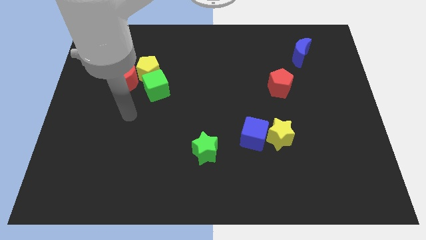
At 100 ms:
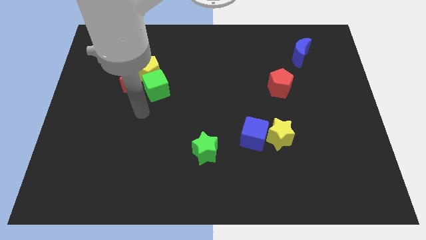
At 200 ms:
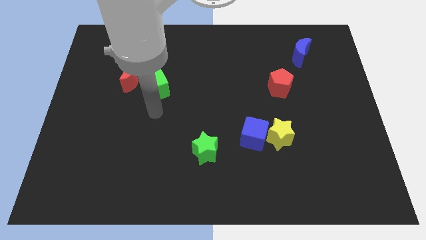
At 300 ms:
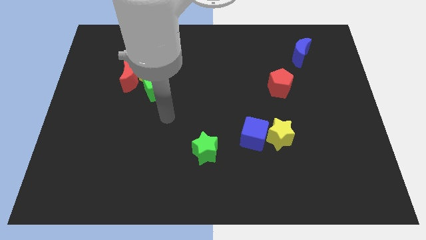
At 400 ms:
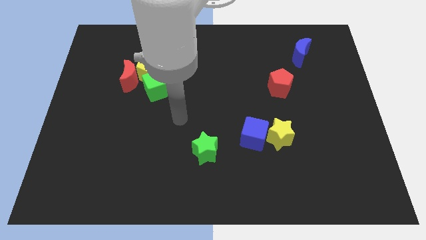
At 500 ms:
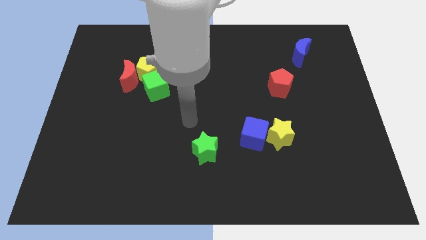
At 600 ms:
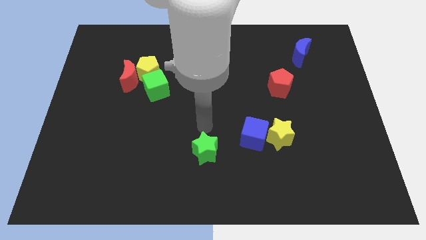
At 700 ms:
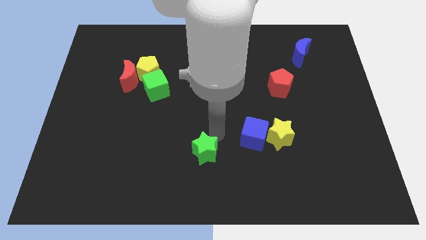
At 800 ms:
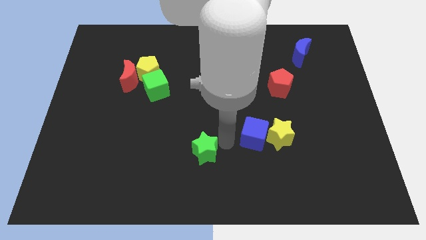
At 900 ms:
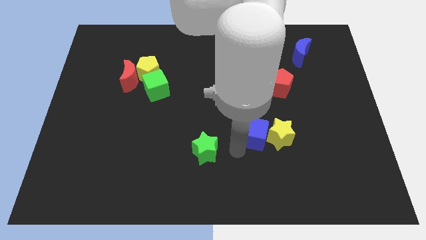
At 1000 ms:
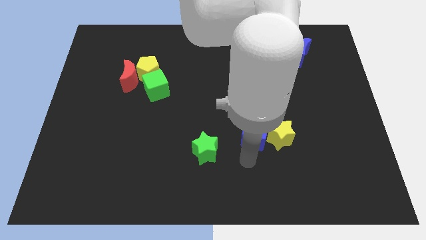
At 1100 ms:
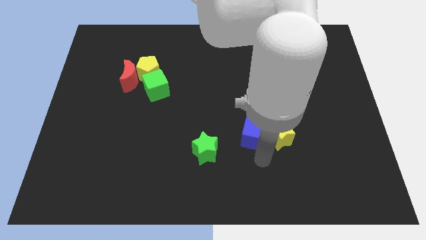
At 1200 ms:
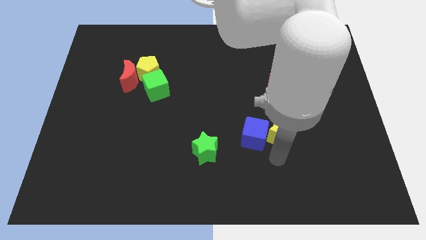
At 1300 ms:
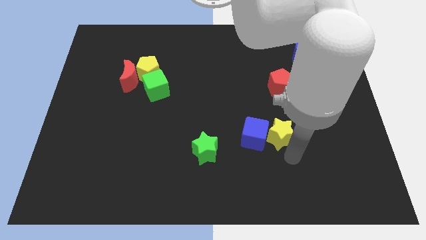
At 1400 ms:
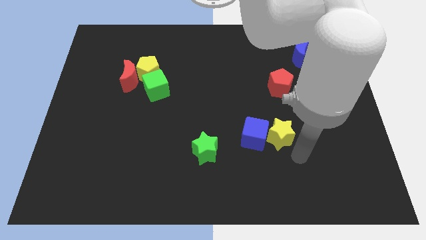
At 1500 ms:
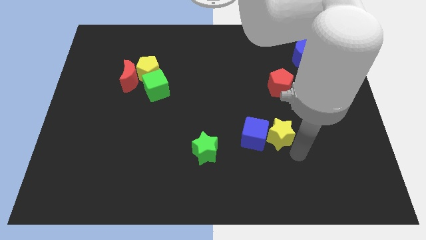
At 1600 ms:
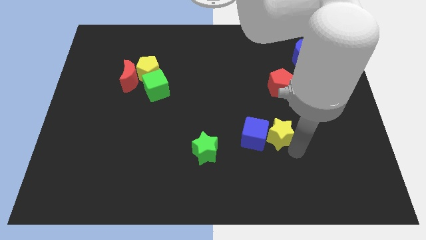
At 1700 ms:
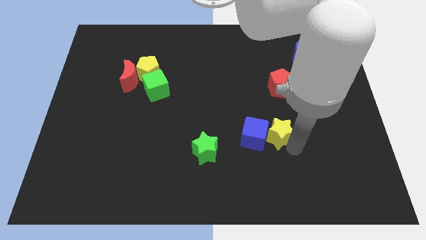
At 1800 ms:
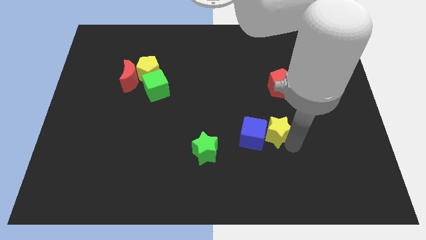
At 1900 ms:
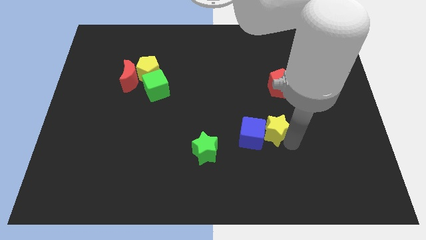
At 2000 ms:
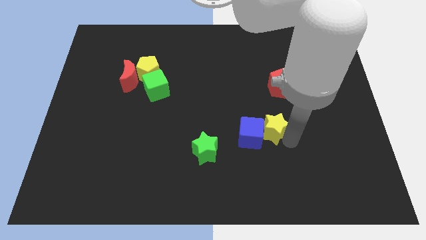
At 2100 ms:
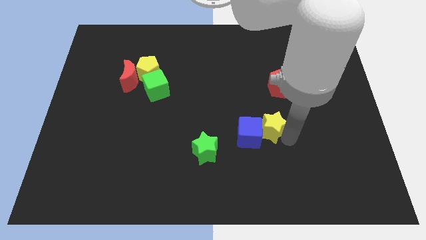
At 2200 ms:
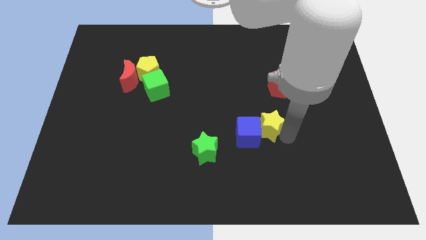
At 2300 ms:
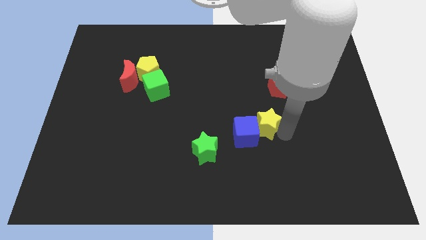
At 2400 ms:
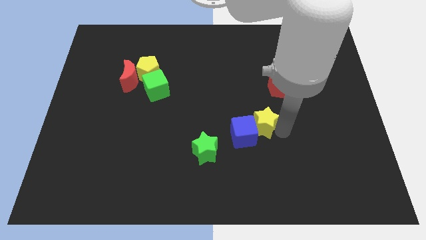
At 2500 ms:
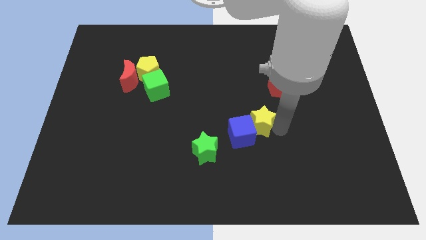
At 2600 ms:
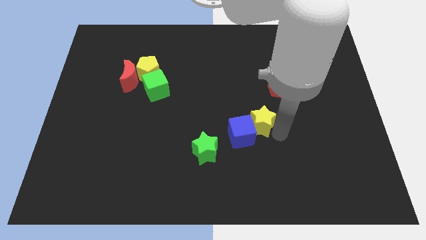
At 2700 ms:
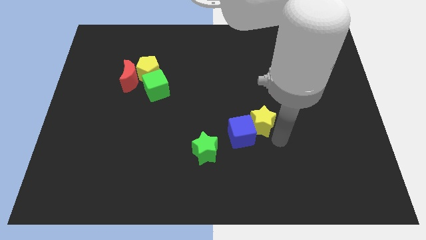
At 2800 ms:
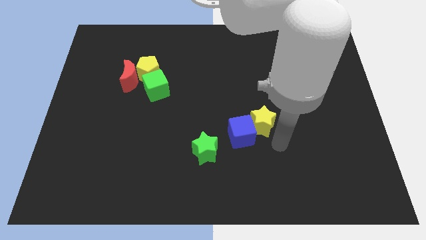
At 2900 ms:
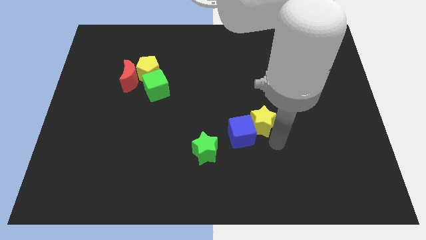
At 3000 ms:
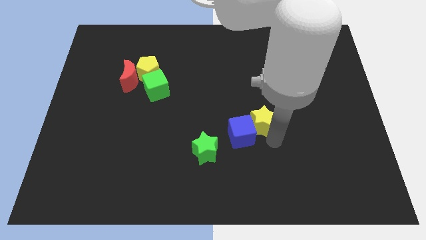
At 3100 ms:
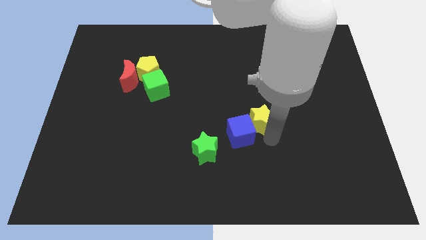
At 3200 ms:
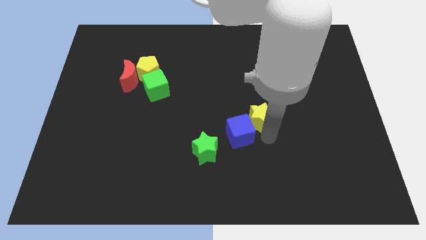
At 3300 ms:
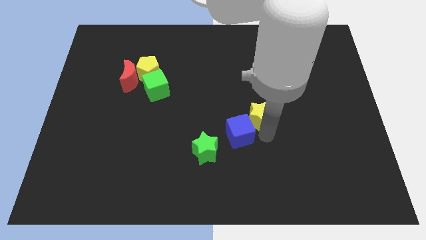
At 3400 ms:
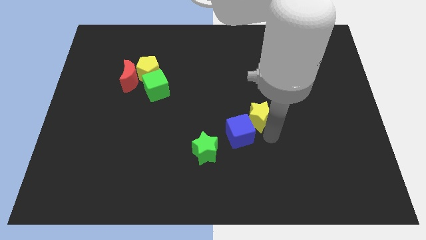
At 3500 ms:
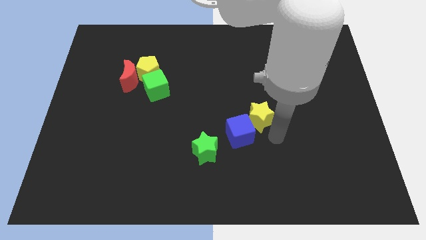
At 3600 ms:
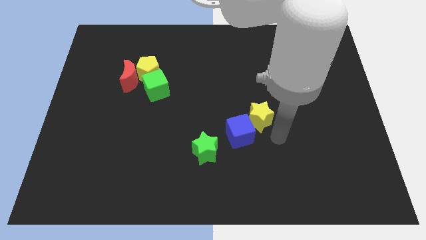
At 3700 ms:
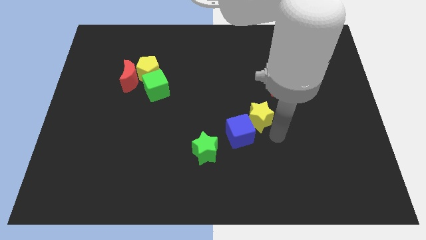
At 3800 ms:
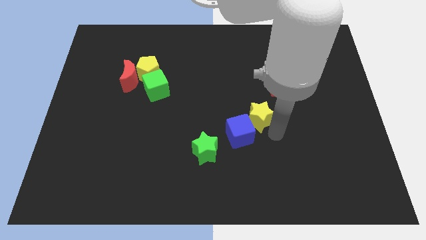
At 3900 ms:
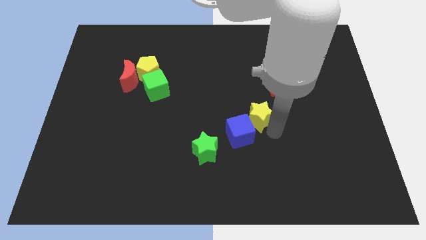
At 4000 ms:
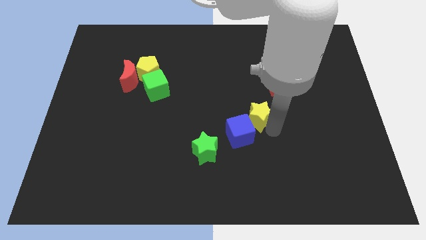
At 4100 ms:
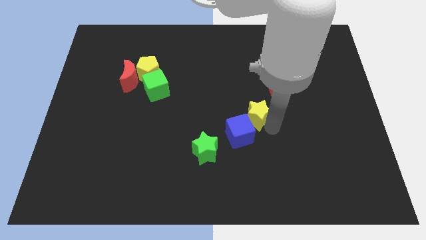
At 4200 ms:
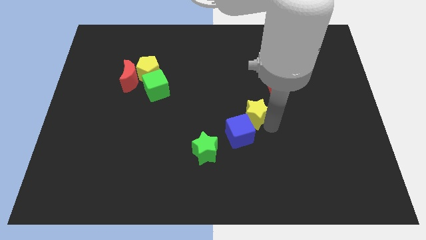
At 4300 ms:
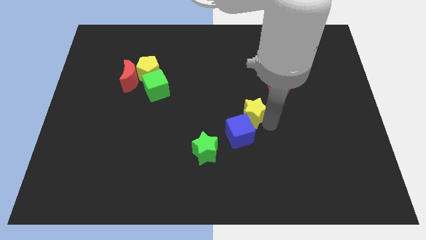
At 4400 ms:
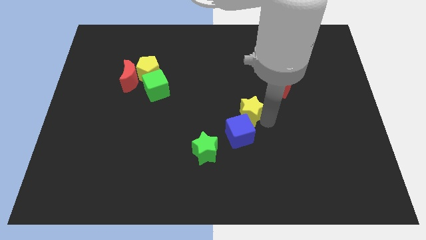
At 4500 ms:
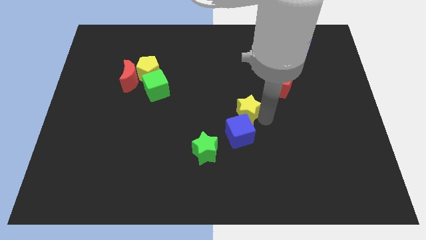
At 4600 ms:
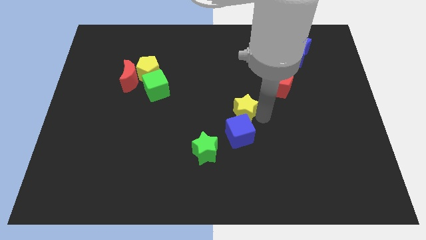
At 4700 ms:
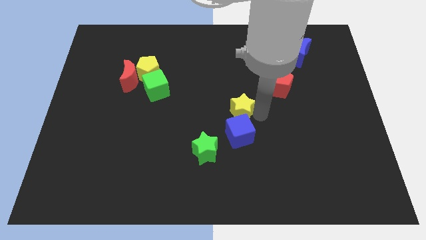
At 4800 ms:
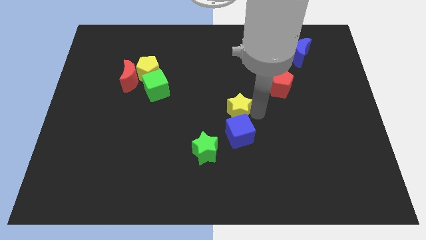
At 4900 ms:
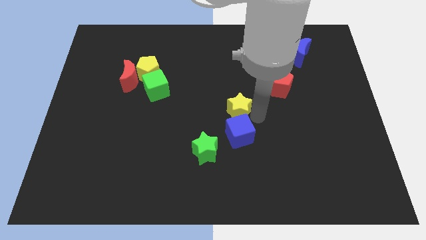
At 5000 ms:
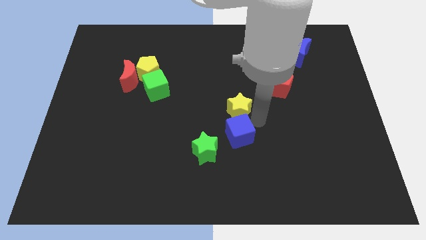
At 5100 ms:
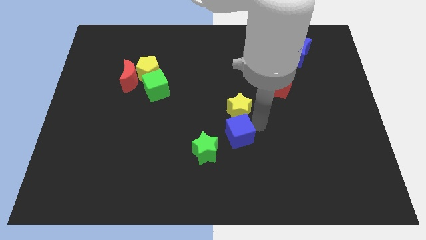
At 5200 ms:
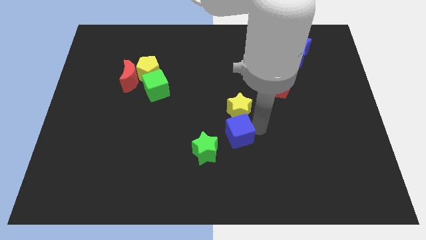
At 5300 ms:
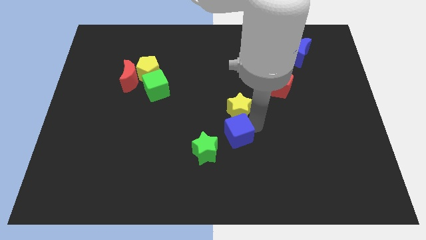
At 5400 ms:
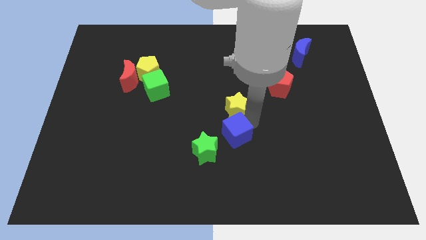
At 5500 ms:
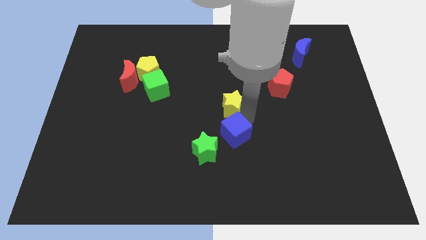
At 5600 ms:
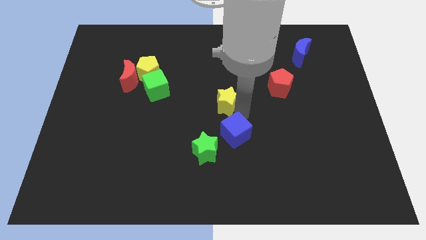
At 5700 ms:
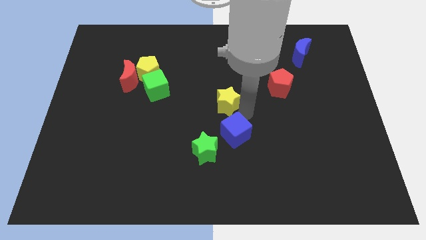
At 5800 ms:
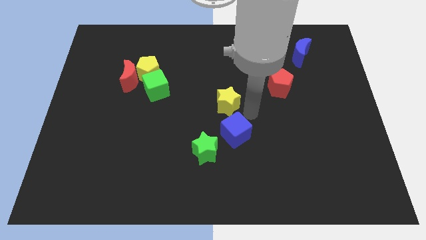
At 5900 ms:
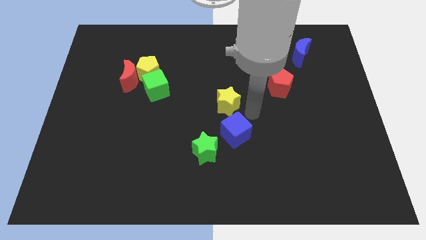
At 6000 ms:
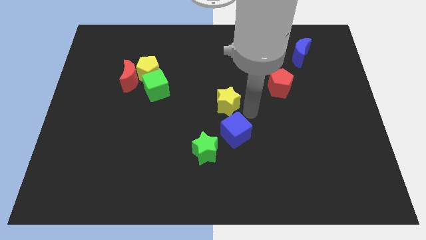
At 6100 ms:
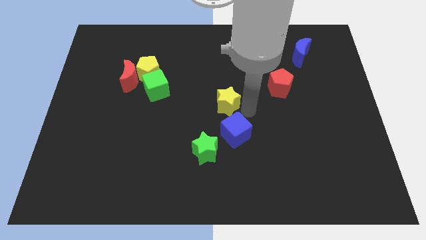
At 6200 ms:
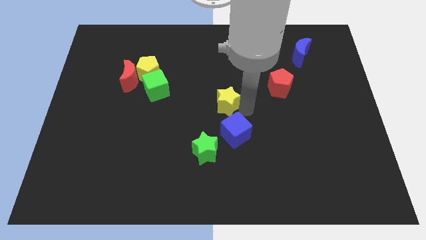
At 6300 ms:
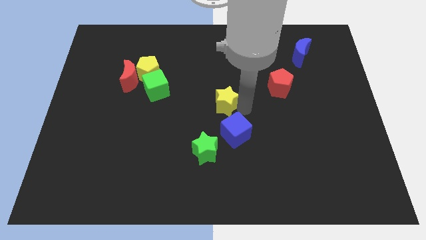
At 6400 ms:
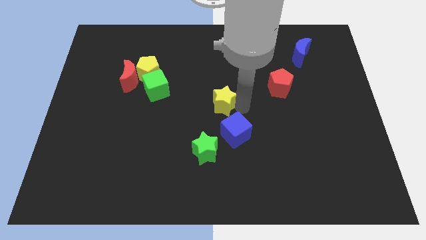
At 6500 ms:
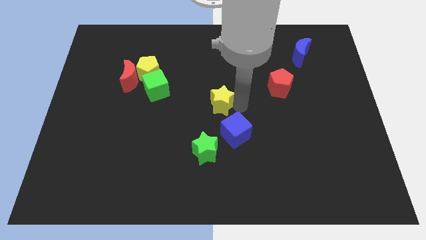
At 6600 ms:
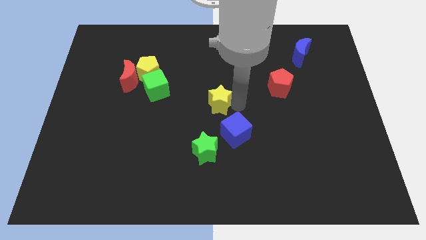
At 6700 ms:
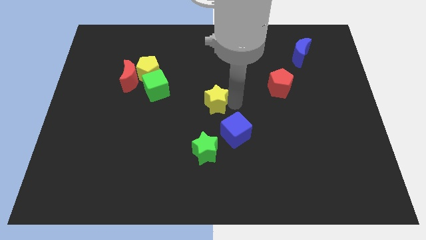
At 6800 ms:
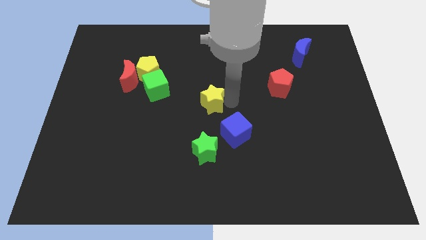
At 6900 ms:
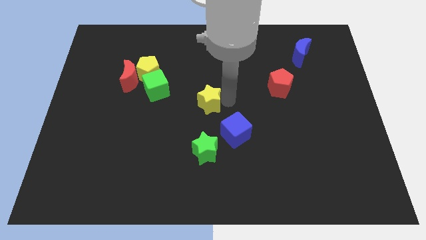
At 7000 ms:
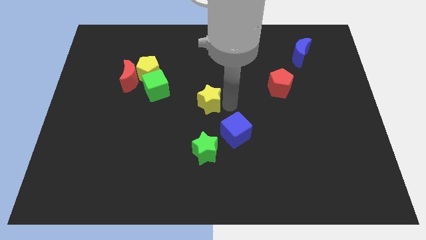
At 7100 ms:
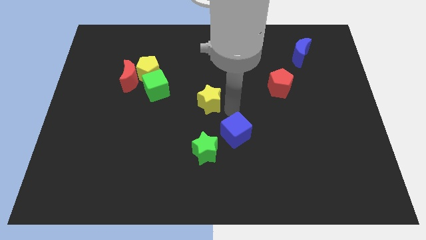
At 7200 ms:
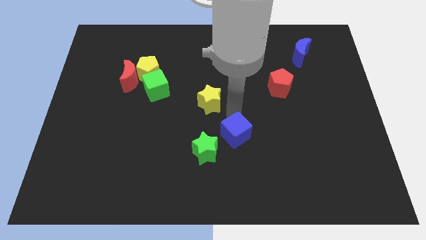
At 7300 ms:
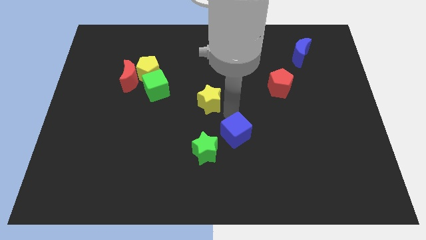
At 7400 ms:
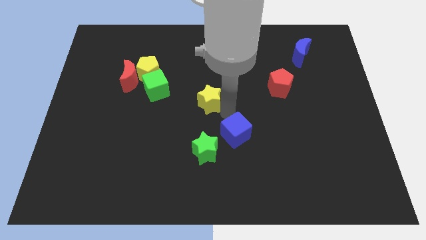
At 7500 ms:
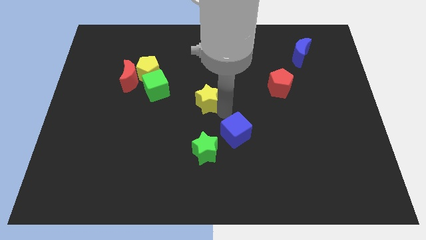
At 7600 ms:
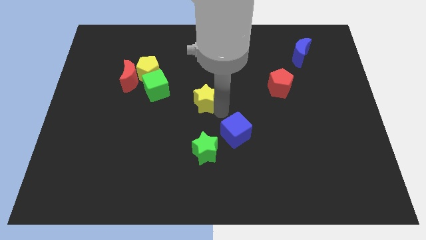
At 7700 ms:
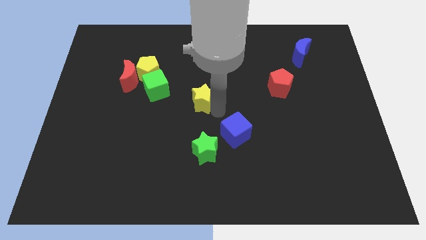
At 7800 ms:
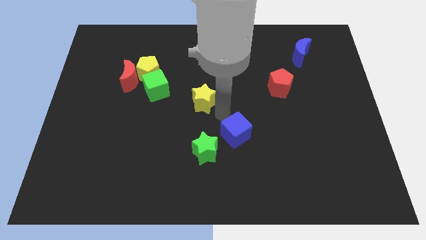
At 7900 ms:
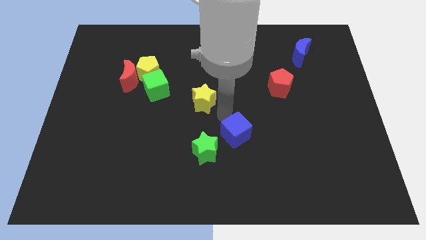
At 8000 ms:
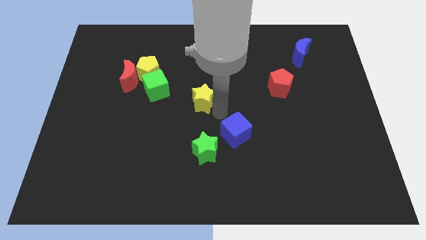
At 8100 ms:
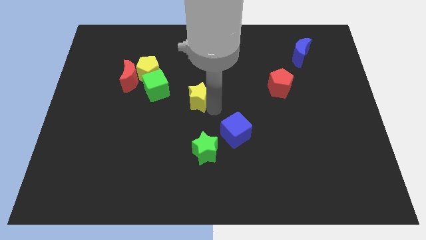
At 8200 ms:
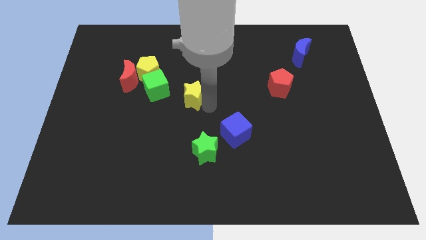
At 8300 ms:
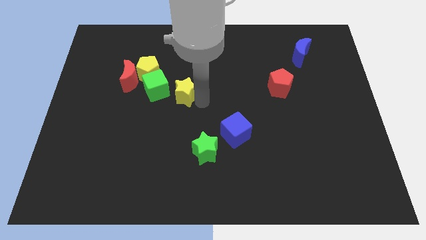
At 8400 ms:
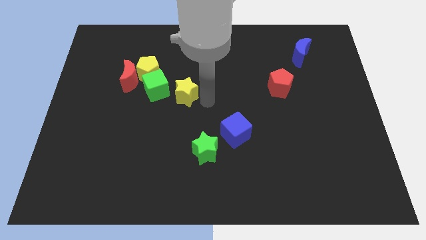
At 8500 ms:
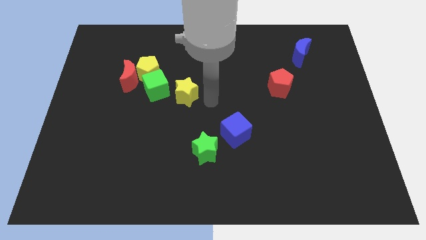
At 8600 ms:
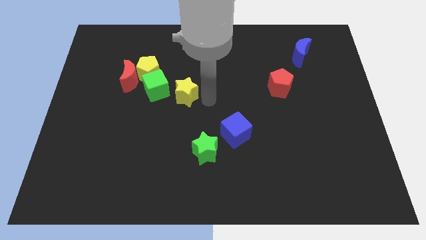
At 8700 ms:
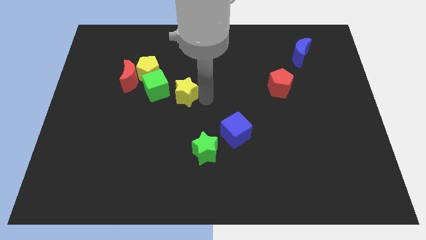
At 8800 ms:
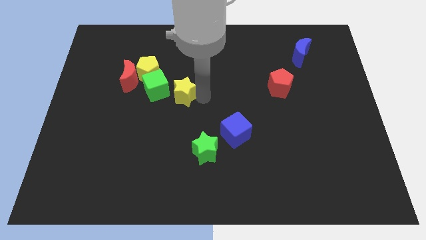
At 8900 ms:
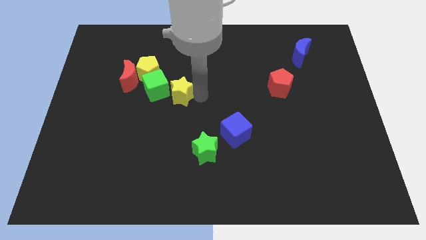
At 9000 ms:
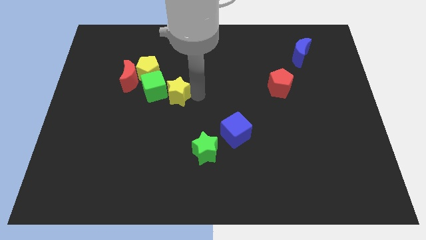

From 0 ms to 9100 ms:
push the yellow star next to the green cube
